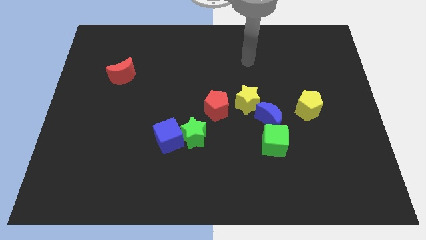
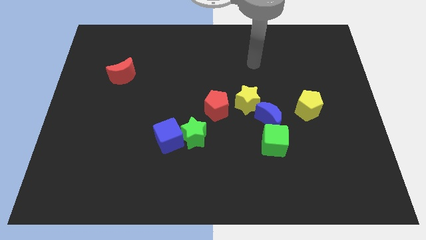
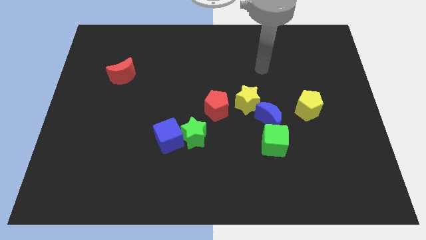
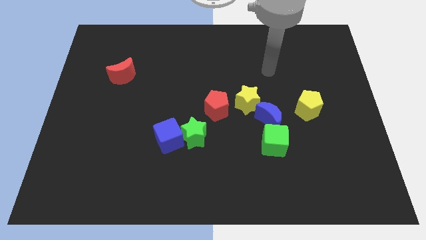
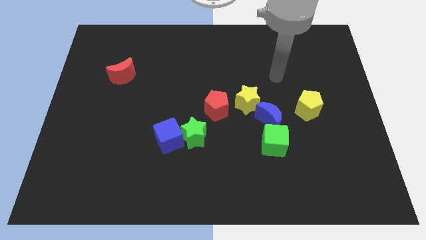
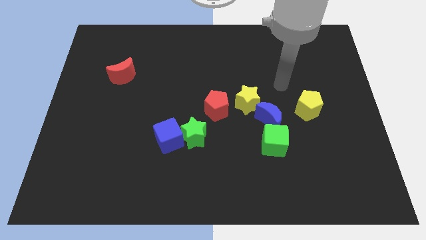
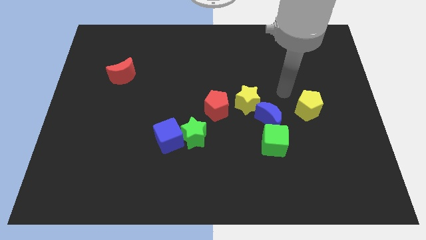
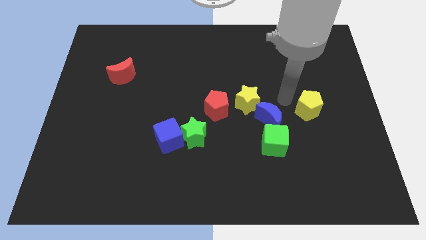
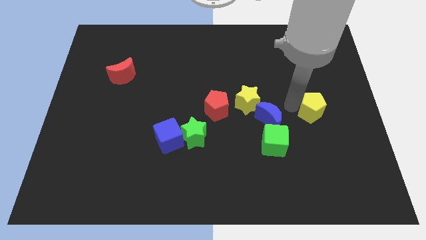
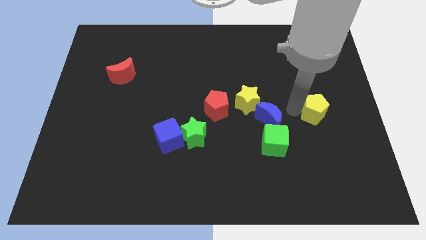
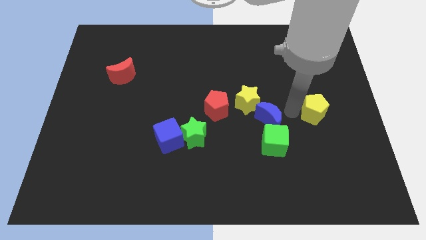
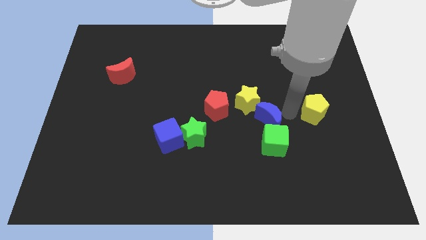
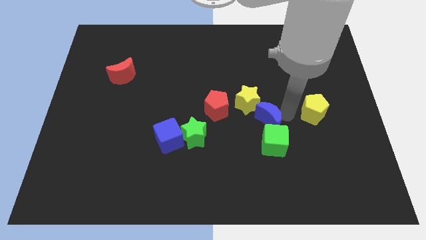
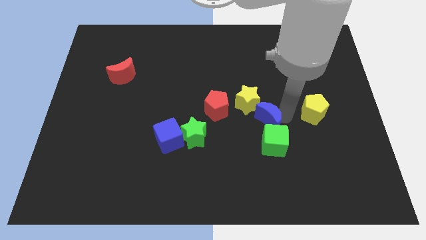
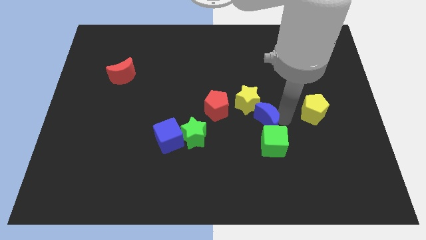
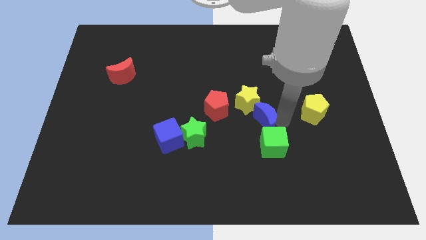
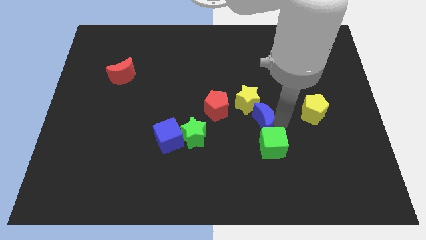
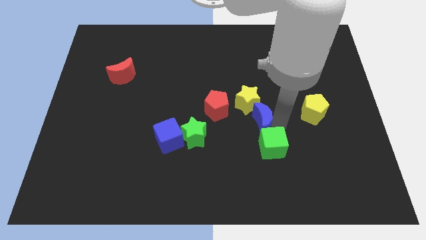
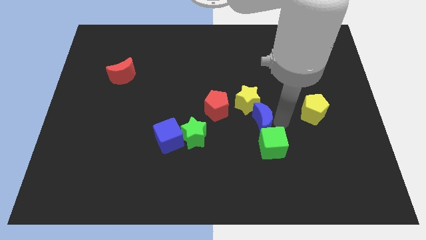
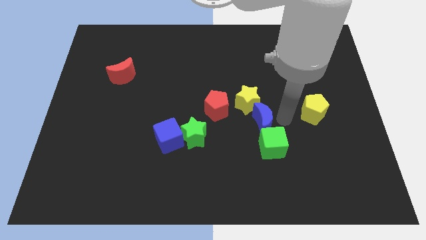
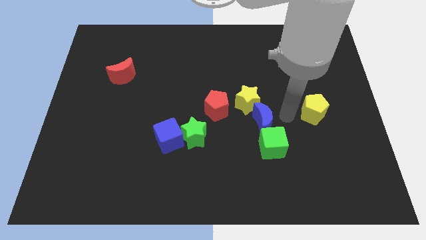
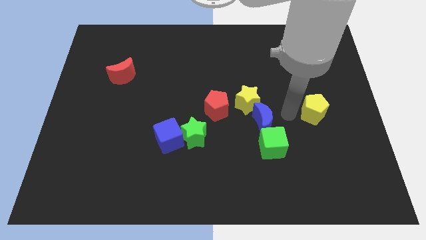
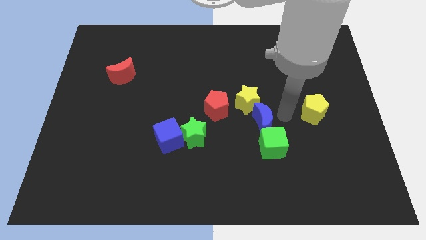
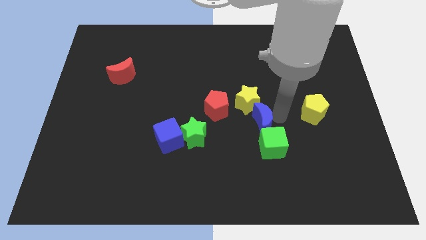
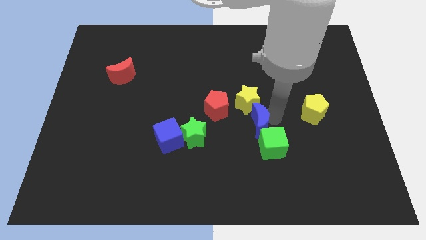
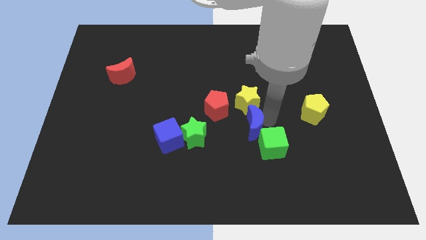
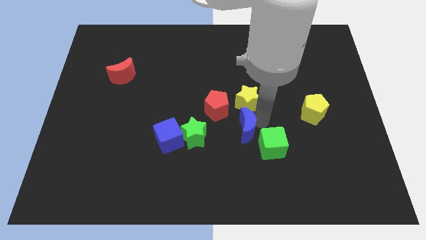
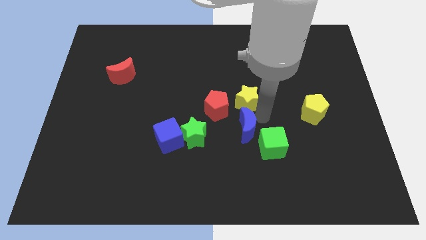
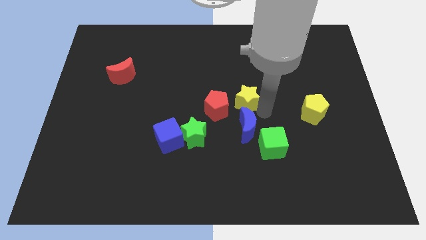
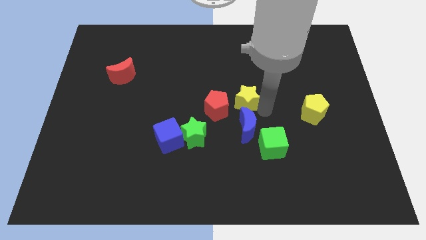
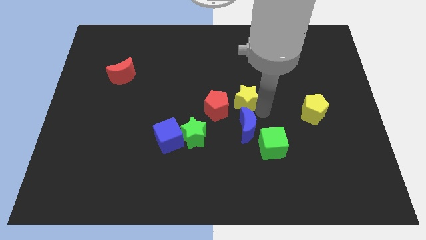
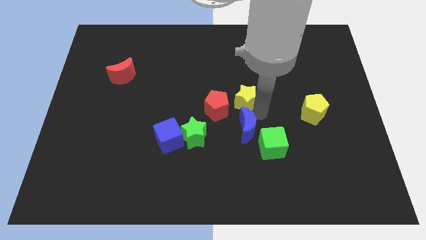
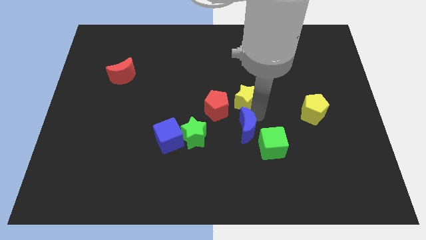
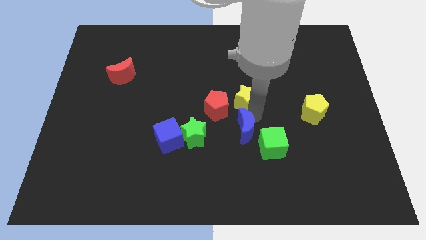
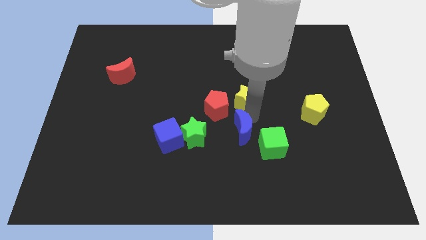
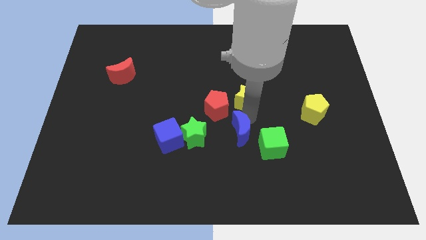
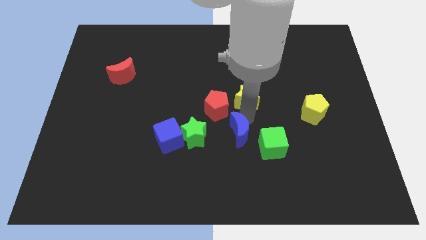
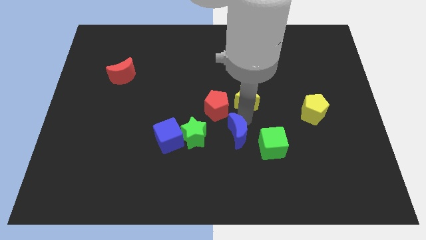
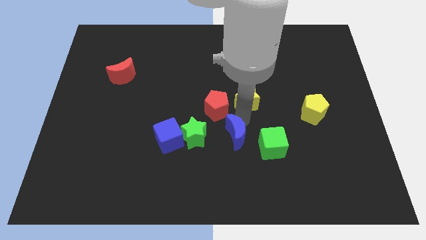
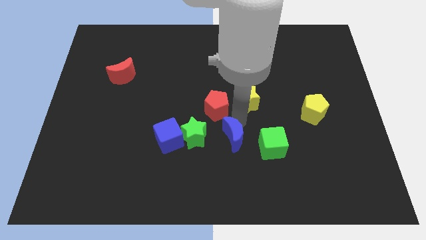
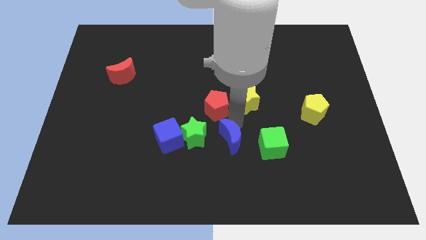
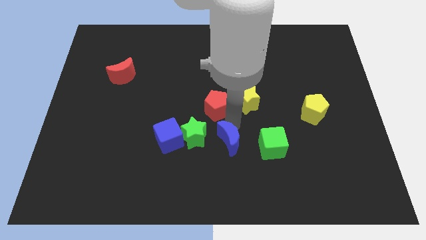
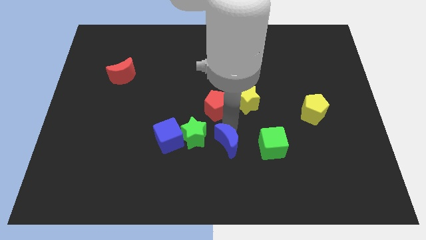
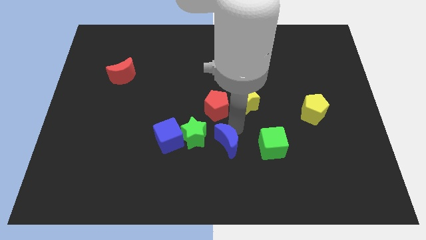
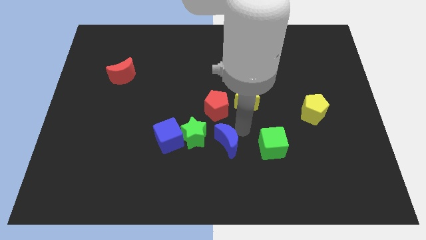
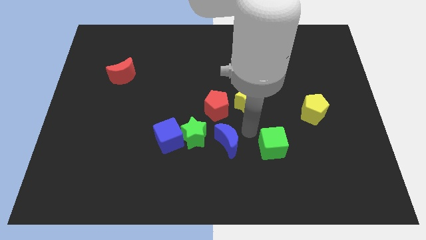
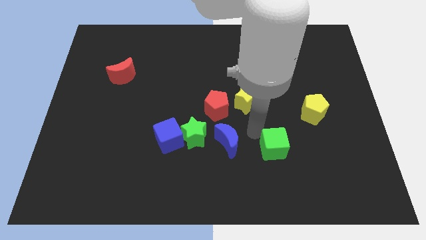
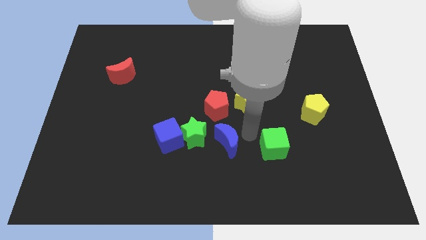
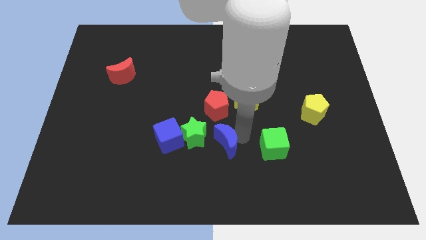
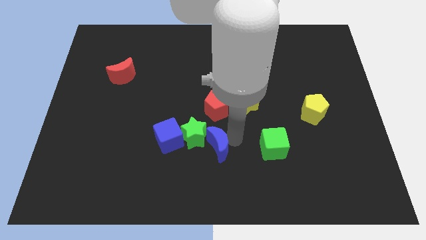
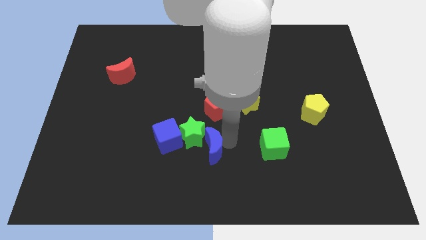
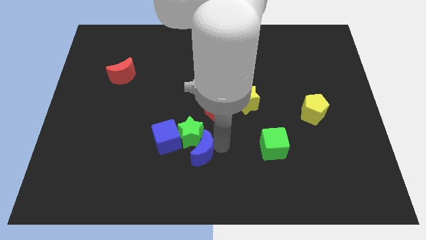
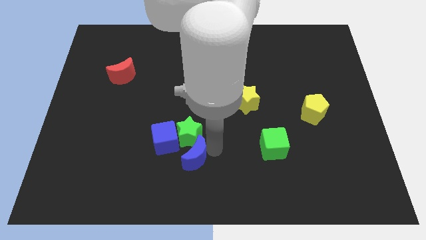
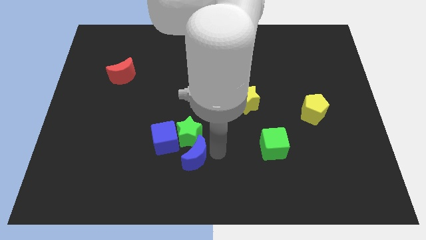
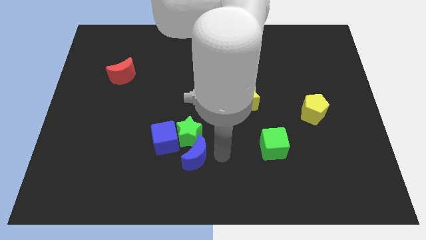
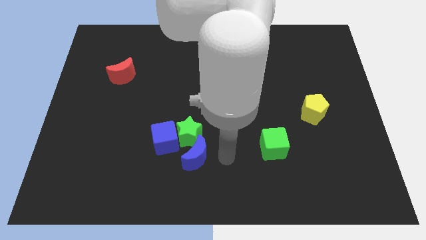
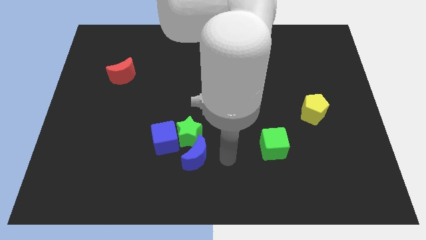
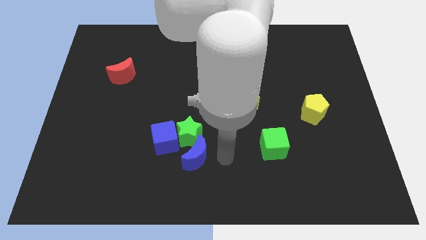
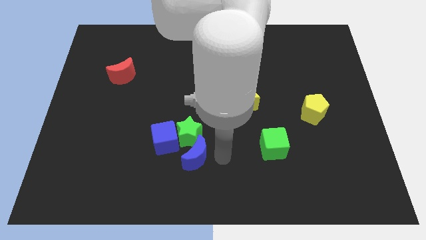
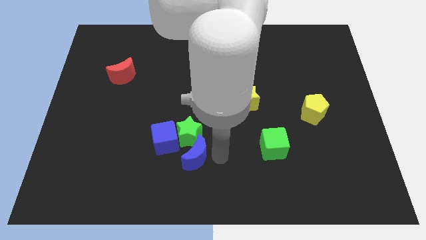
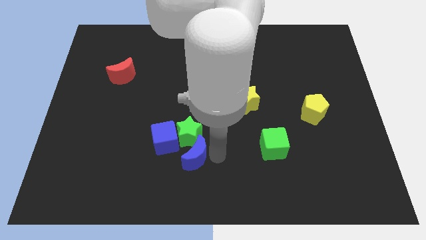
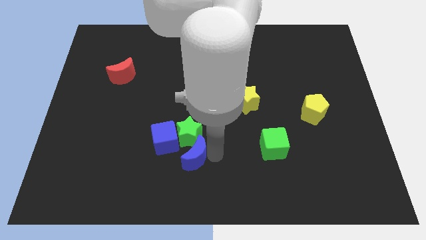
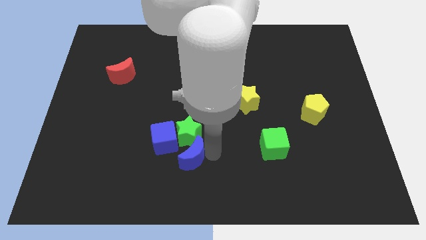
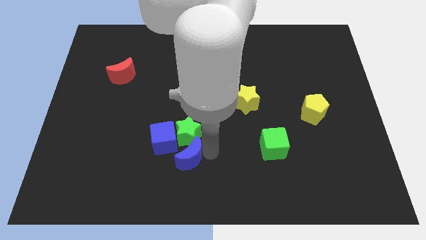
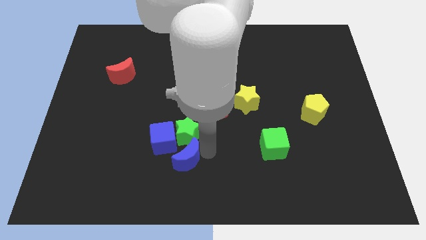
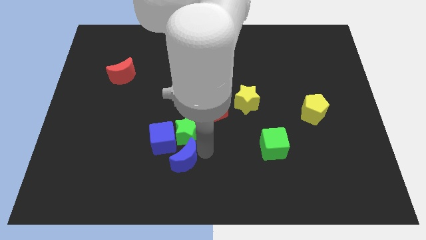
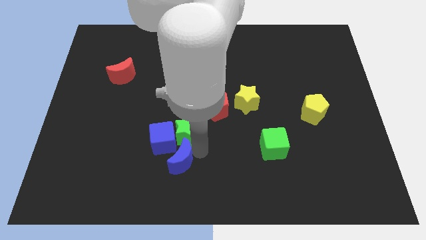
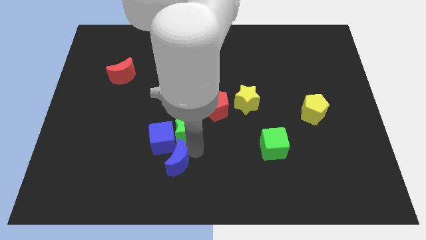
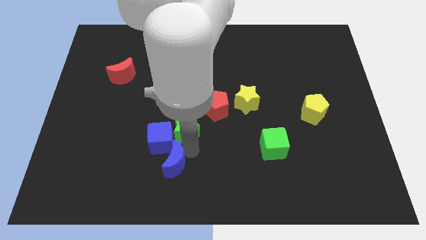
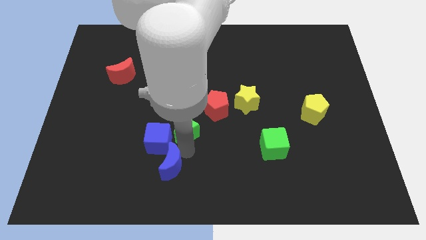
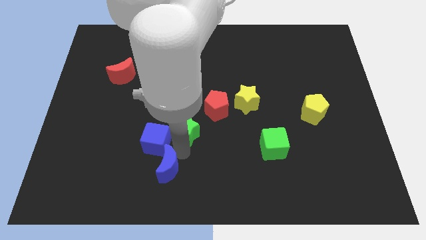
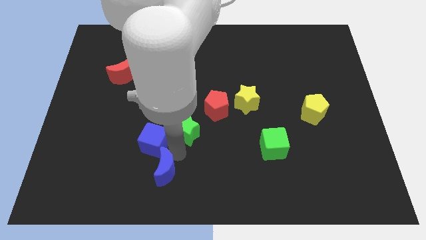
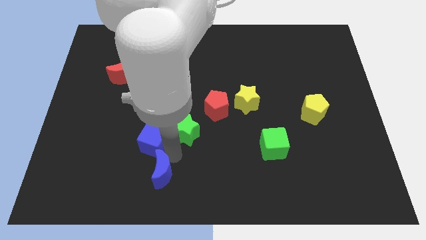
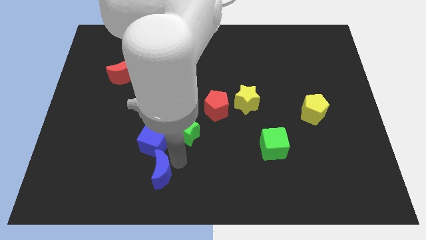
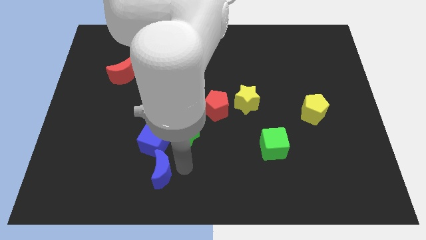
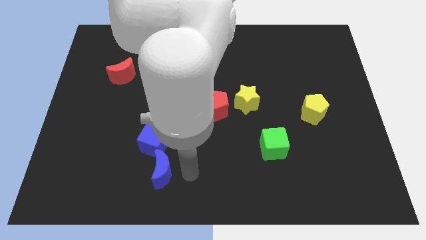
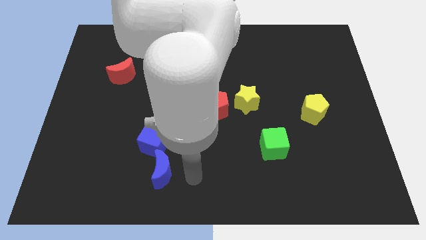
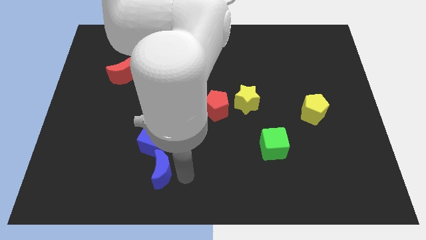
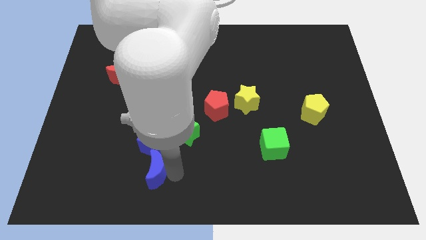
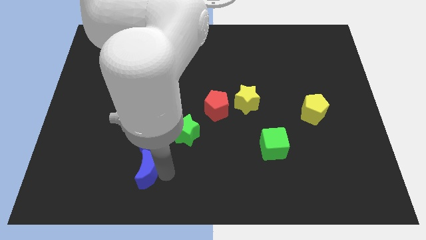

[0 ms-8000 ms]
push the blue moon to the bottom left side of the blue cube
